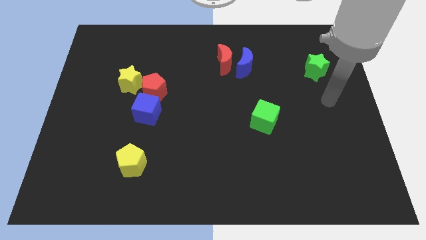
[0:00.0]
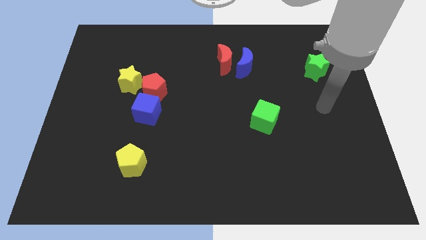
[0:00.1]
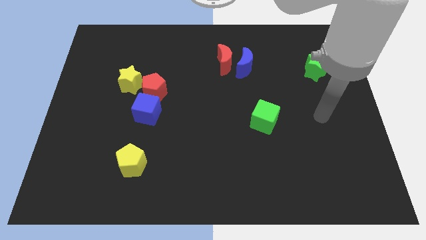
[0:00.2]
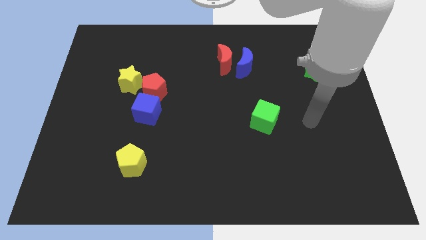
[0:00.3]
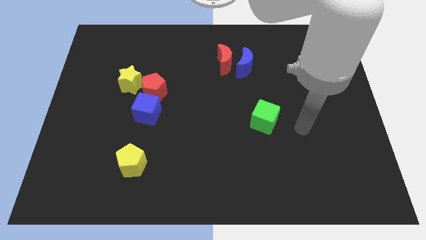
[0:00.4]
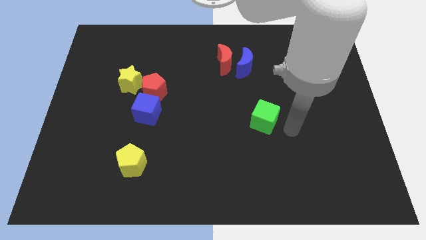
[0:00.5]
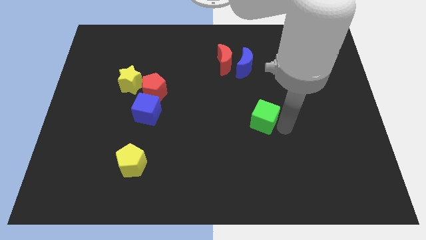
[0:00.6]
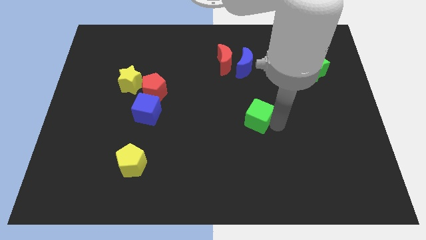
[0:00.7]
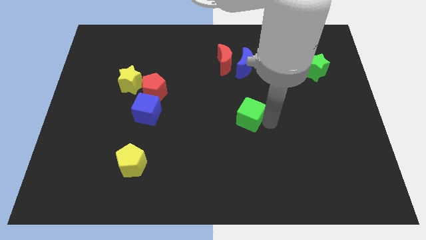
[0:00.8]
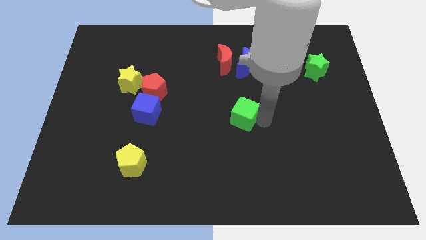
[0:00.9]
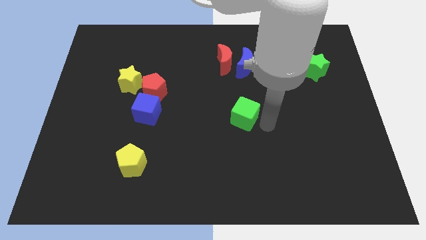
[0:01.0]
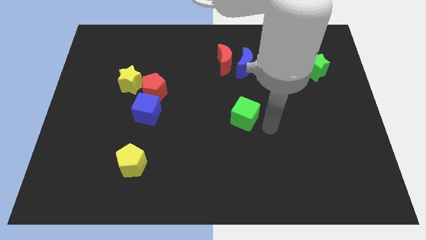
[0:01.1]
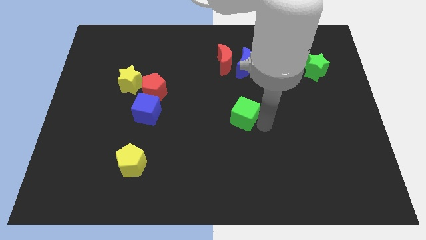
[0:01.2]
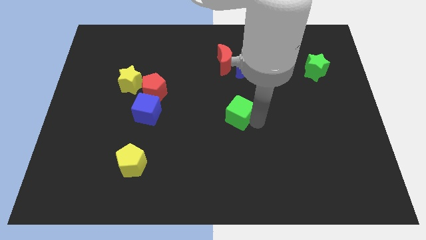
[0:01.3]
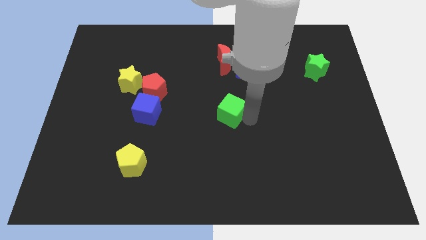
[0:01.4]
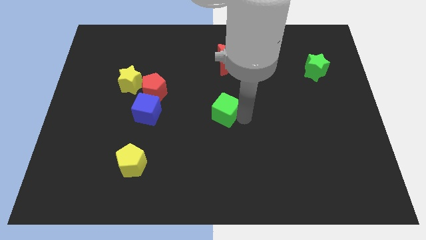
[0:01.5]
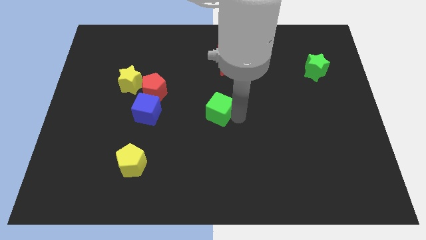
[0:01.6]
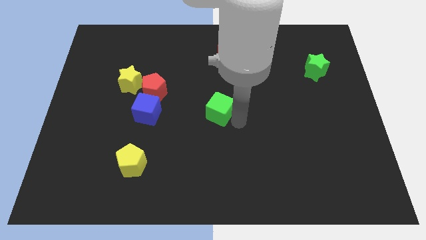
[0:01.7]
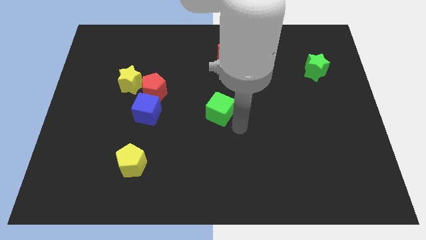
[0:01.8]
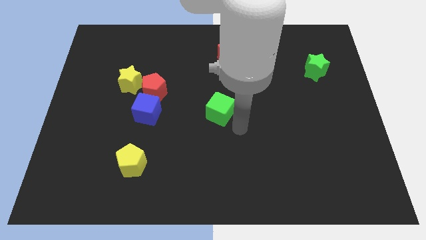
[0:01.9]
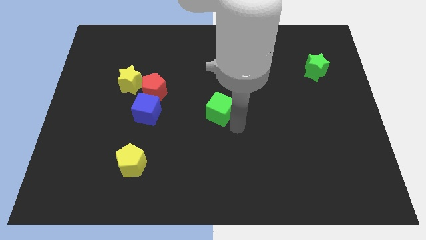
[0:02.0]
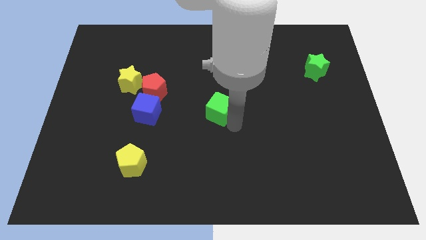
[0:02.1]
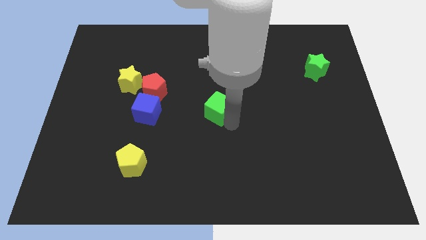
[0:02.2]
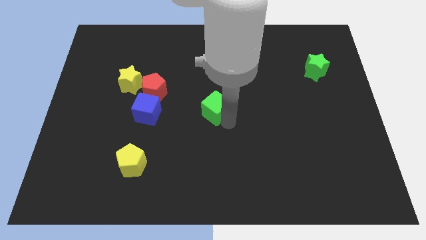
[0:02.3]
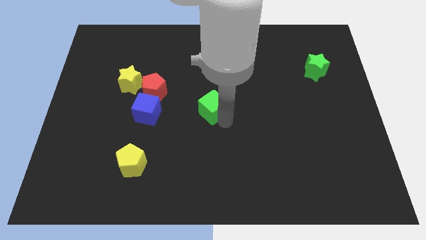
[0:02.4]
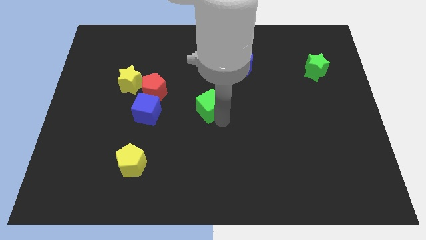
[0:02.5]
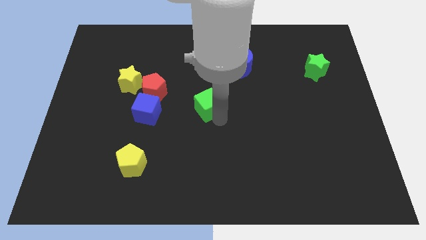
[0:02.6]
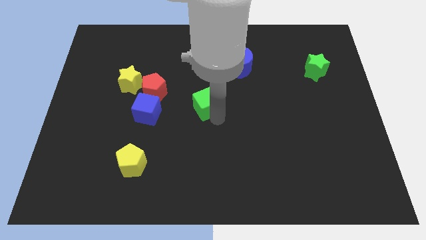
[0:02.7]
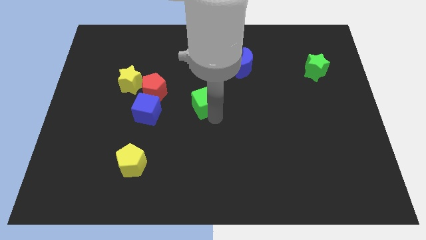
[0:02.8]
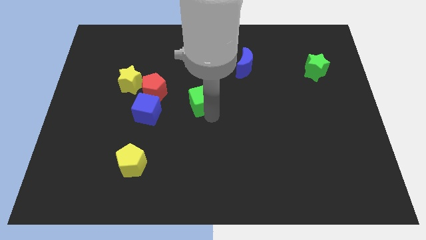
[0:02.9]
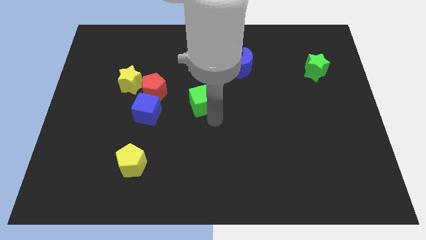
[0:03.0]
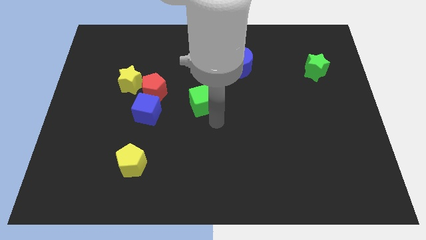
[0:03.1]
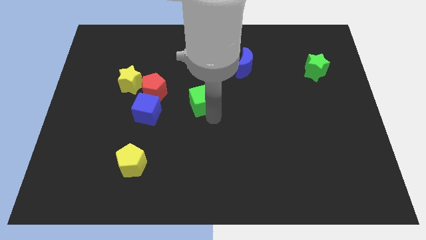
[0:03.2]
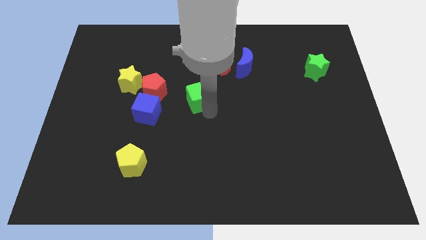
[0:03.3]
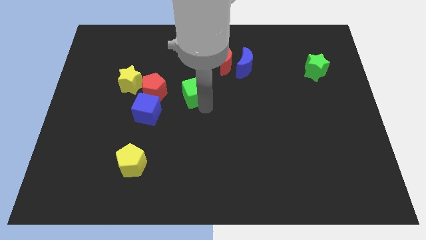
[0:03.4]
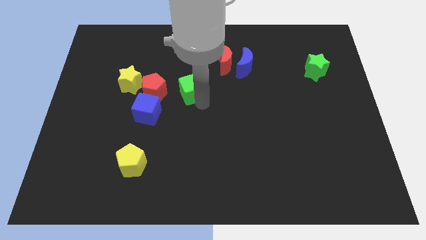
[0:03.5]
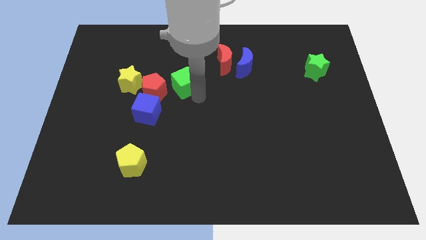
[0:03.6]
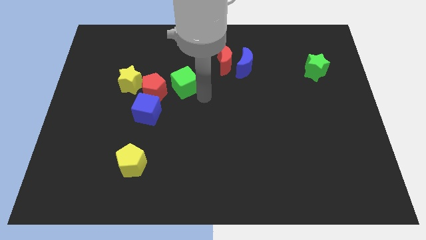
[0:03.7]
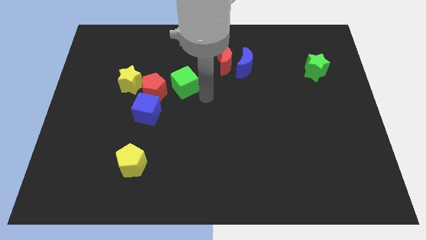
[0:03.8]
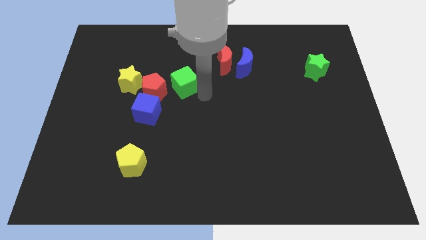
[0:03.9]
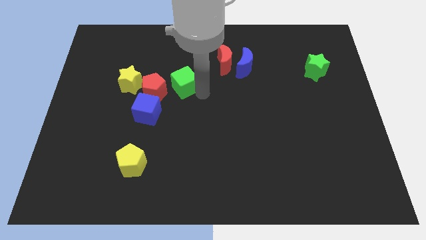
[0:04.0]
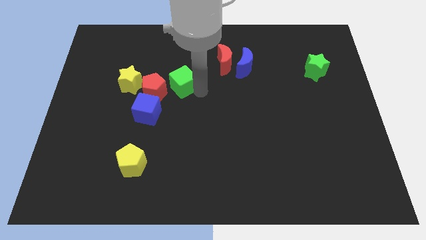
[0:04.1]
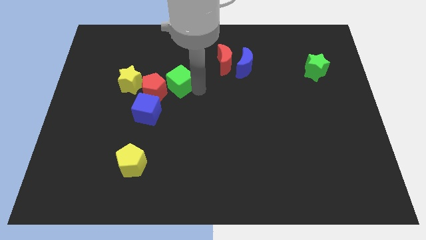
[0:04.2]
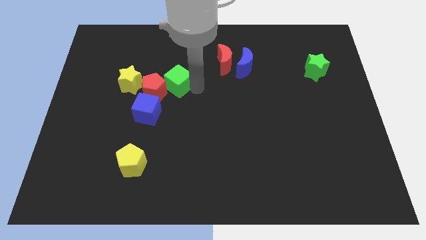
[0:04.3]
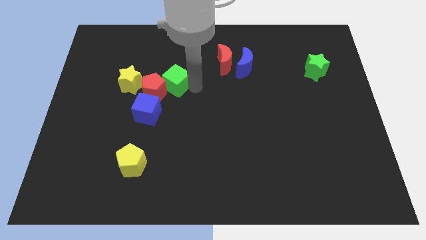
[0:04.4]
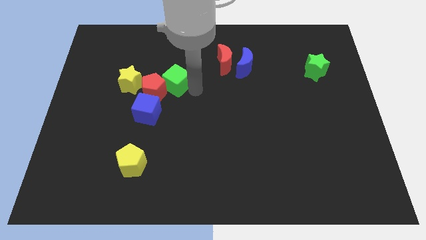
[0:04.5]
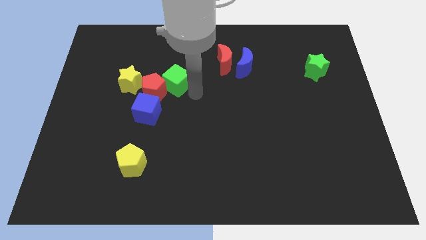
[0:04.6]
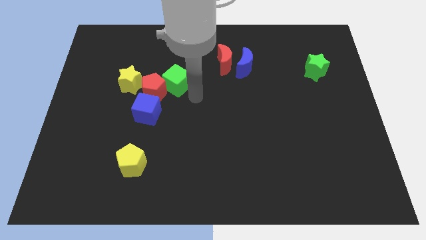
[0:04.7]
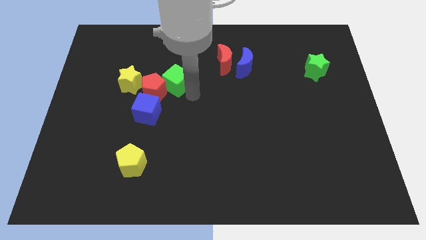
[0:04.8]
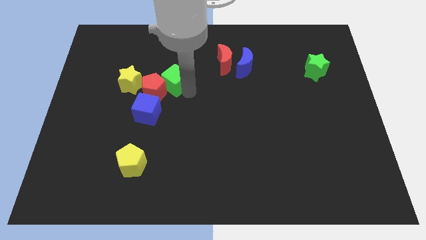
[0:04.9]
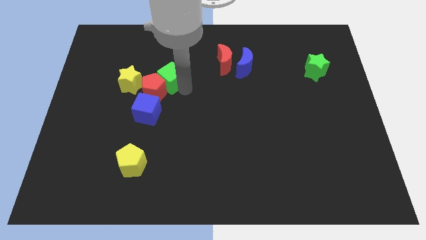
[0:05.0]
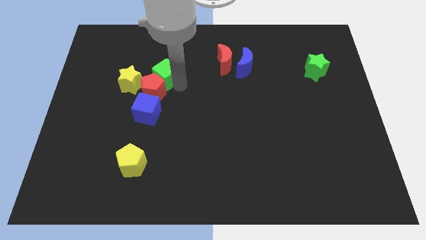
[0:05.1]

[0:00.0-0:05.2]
slide the green cube diagonally up and to the right of the yellow star
